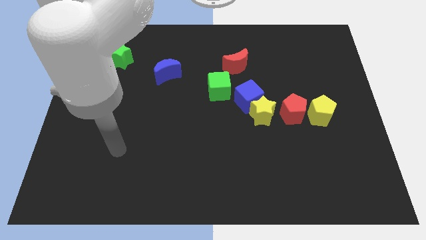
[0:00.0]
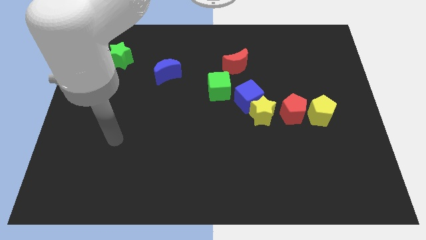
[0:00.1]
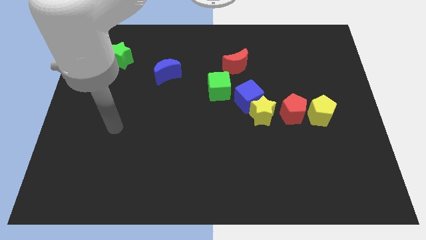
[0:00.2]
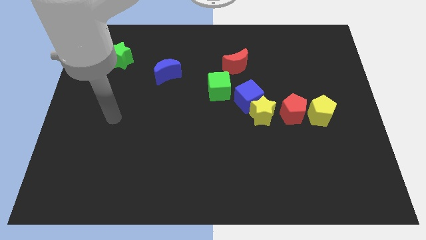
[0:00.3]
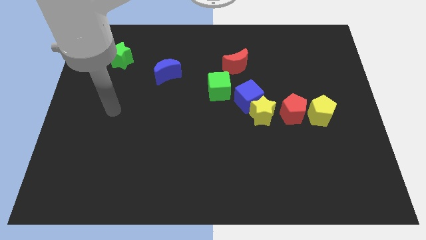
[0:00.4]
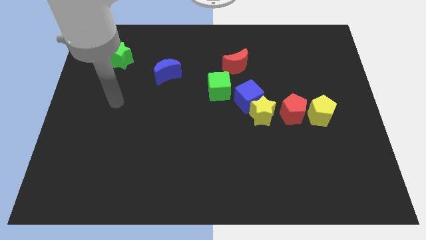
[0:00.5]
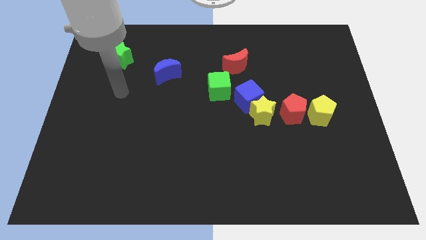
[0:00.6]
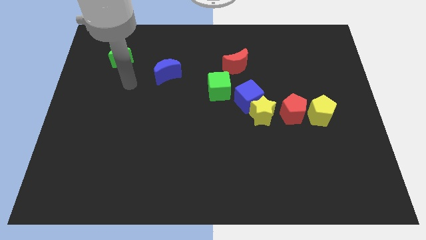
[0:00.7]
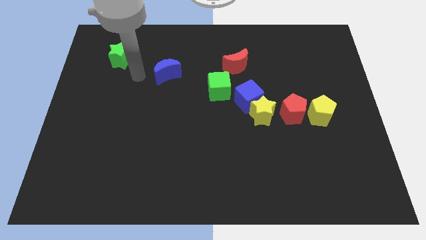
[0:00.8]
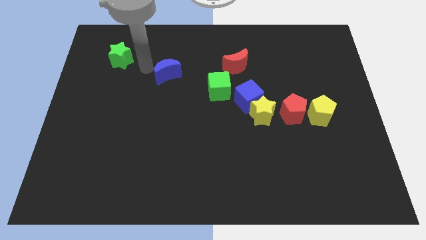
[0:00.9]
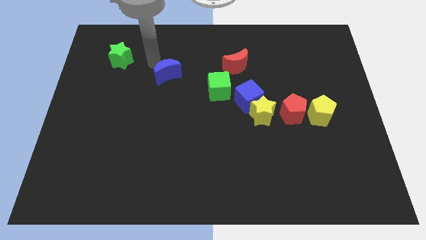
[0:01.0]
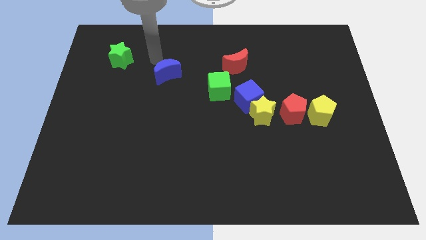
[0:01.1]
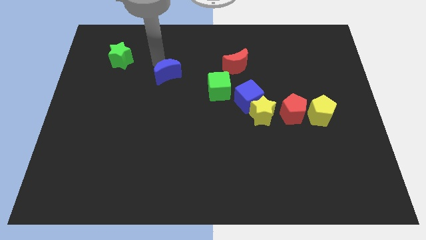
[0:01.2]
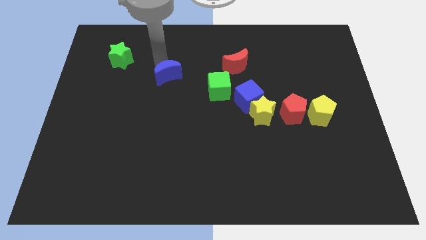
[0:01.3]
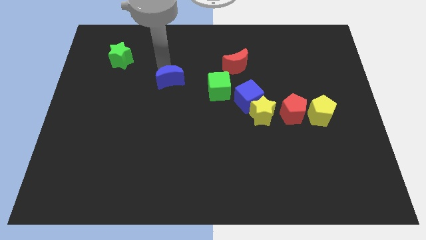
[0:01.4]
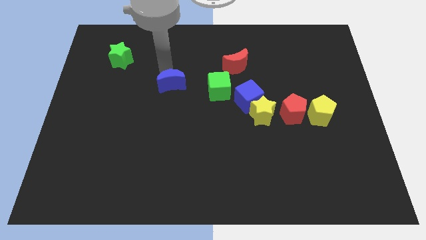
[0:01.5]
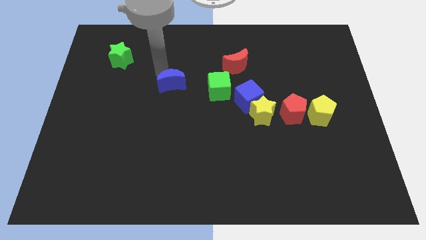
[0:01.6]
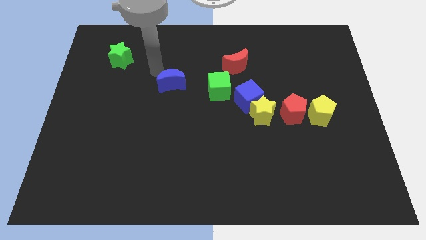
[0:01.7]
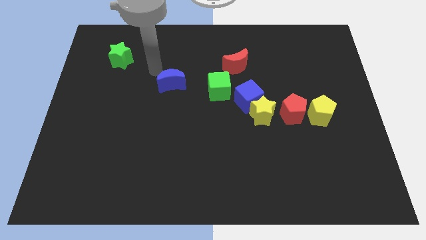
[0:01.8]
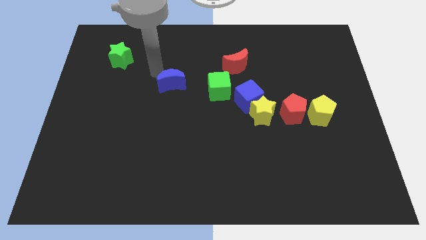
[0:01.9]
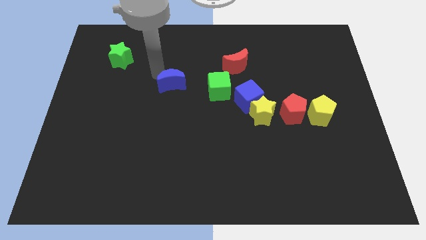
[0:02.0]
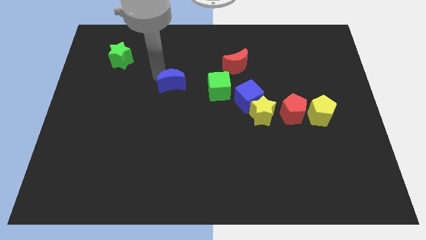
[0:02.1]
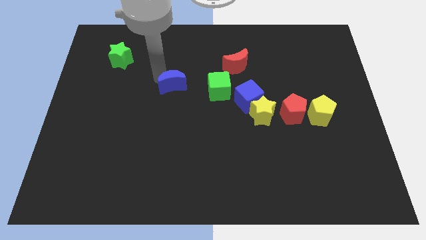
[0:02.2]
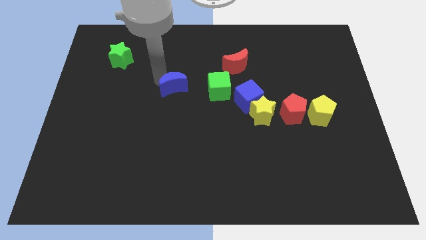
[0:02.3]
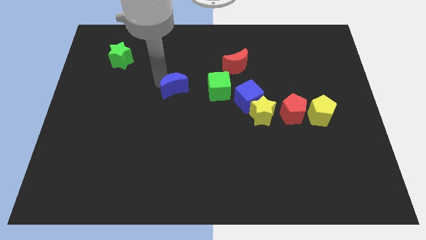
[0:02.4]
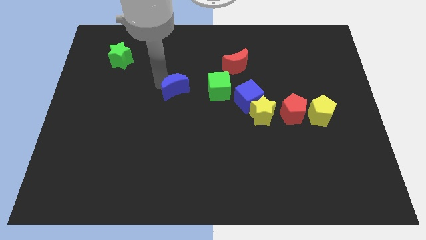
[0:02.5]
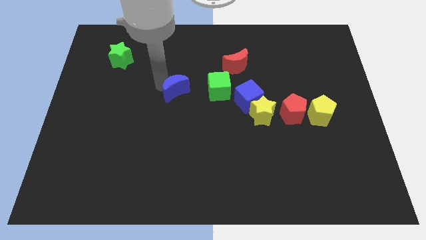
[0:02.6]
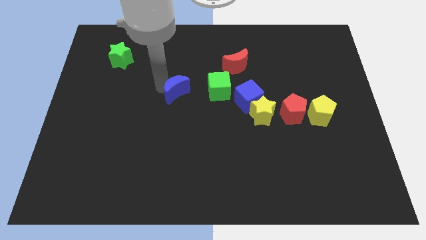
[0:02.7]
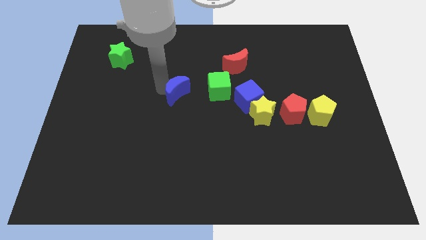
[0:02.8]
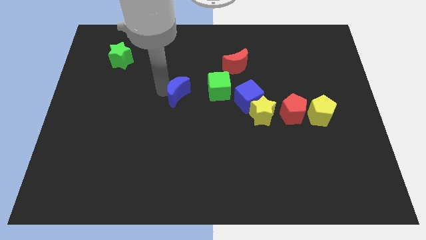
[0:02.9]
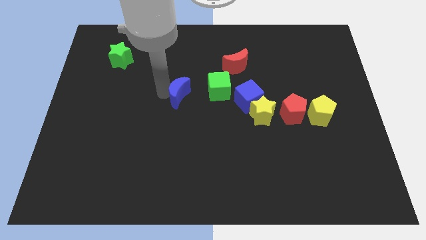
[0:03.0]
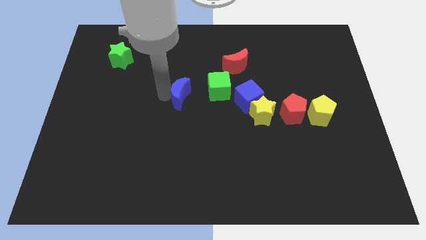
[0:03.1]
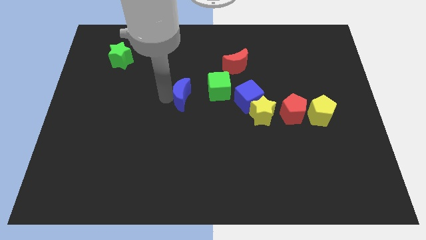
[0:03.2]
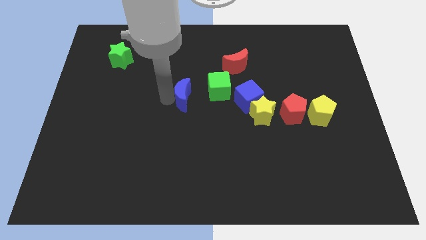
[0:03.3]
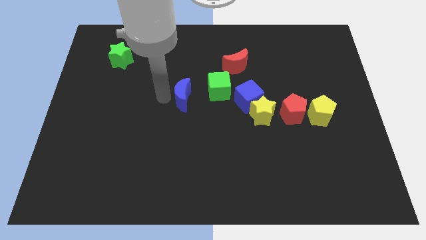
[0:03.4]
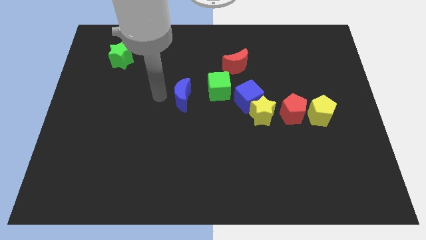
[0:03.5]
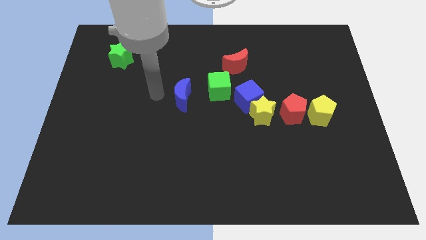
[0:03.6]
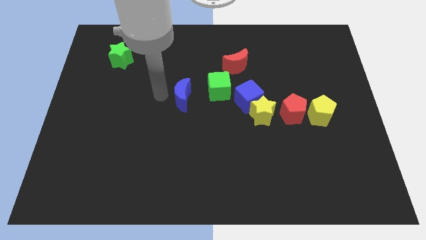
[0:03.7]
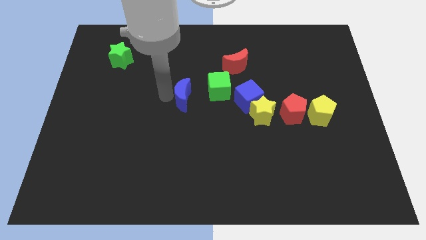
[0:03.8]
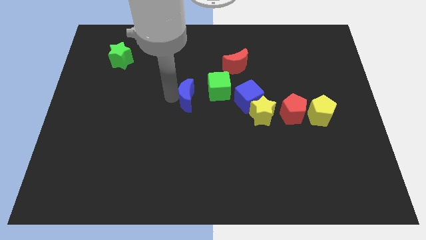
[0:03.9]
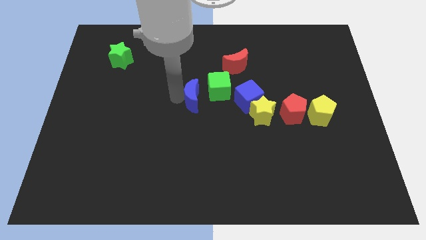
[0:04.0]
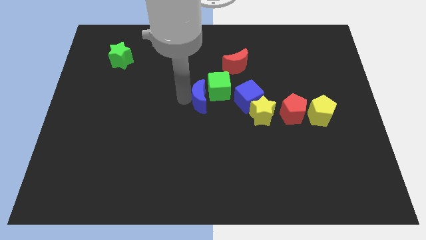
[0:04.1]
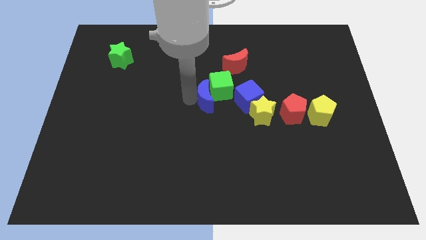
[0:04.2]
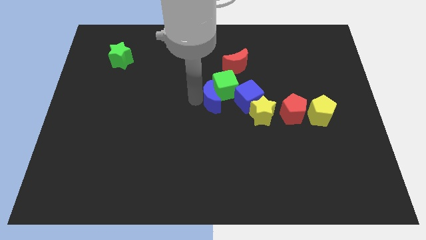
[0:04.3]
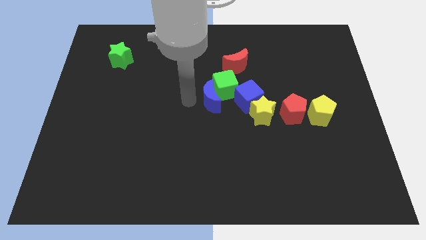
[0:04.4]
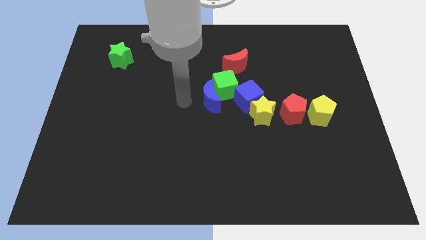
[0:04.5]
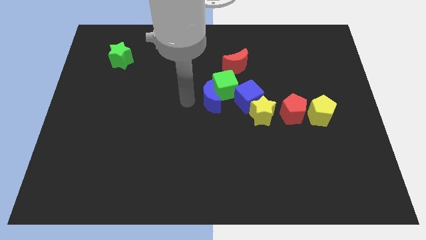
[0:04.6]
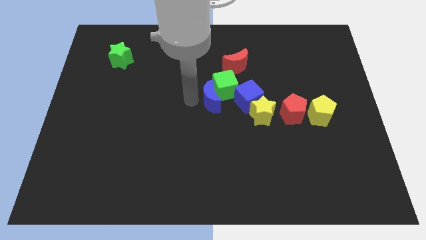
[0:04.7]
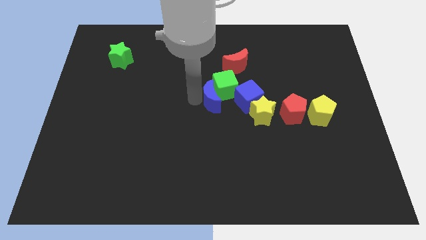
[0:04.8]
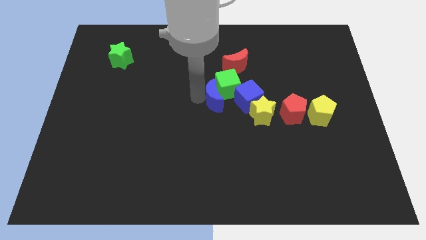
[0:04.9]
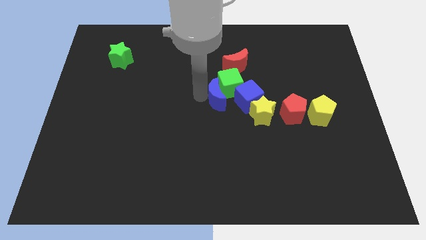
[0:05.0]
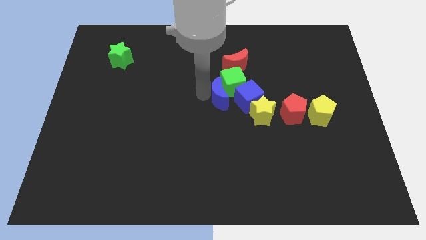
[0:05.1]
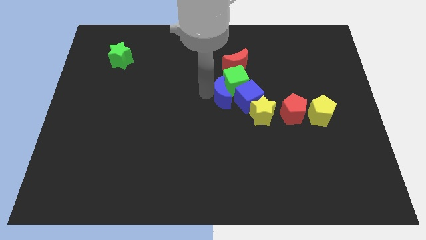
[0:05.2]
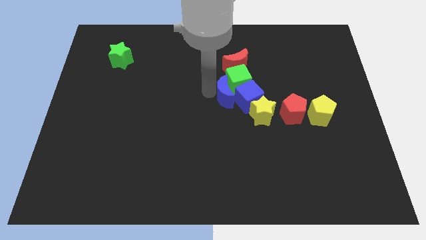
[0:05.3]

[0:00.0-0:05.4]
put the blue moon to the blue cube

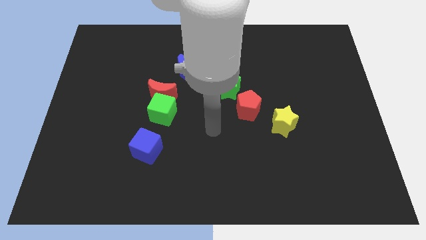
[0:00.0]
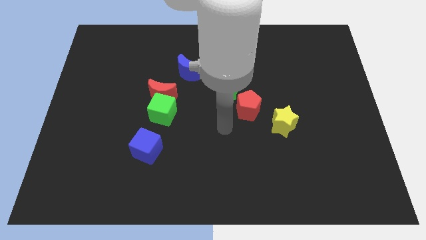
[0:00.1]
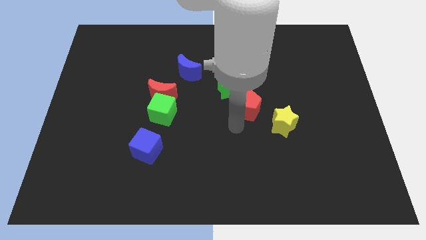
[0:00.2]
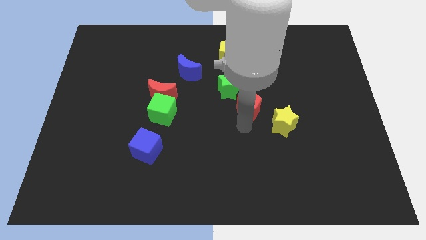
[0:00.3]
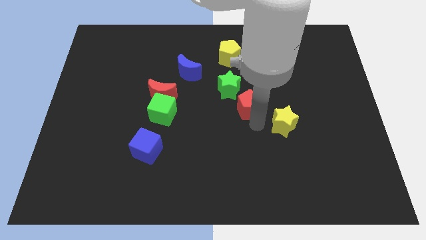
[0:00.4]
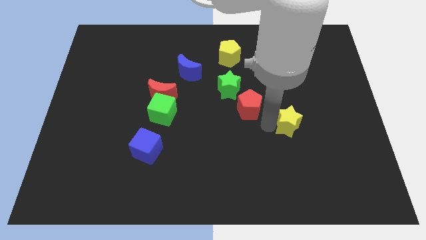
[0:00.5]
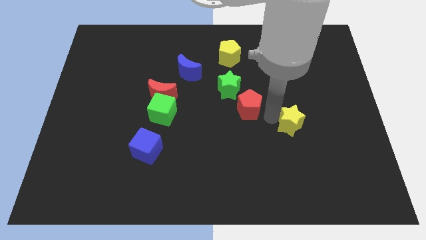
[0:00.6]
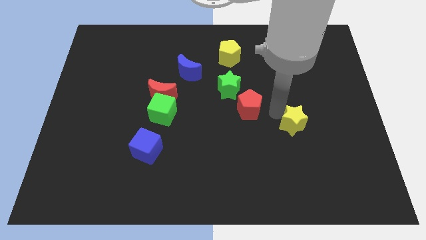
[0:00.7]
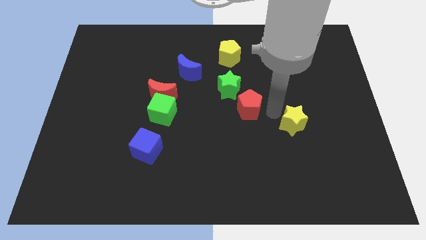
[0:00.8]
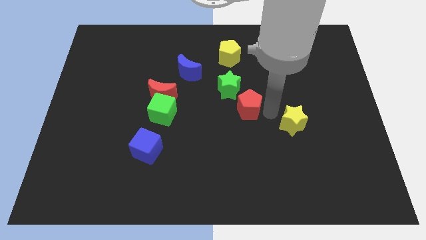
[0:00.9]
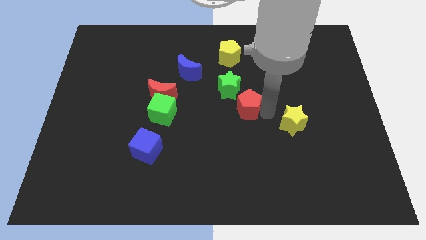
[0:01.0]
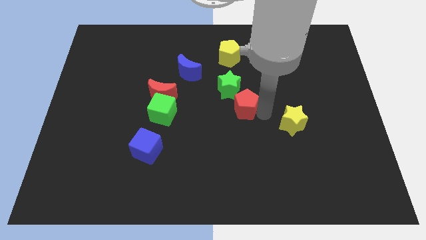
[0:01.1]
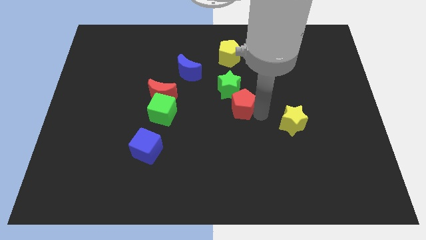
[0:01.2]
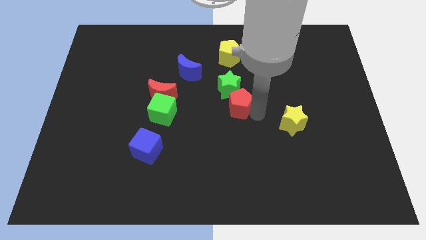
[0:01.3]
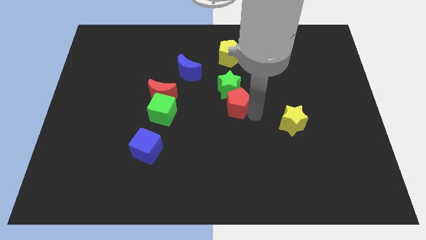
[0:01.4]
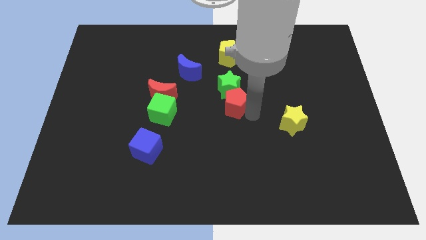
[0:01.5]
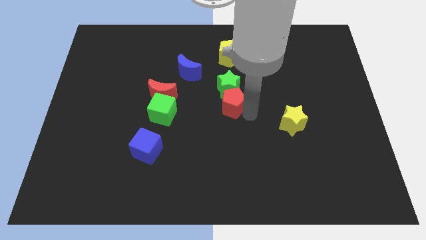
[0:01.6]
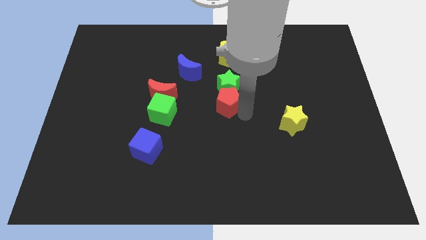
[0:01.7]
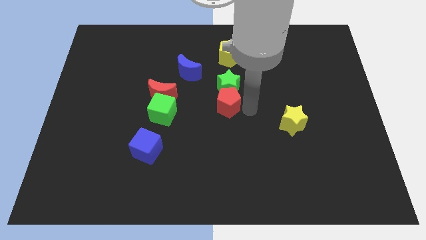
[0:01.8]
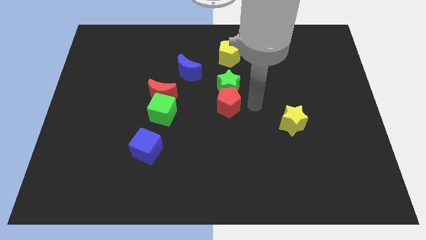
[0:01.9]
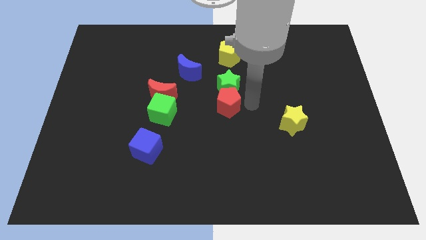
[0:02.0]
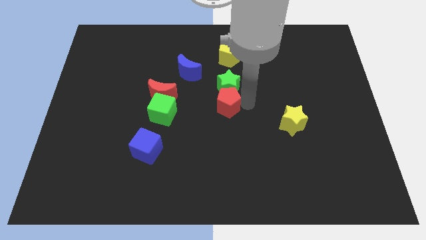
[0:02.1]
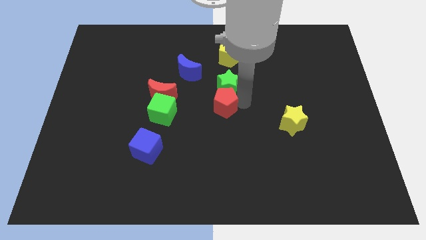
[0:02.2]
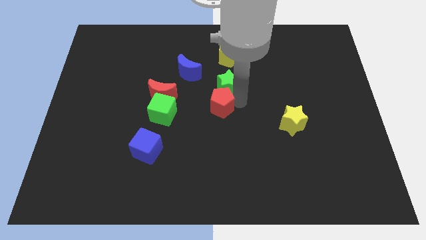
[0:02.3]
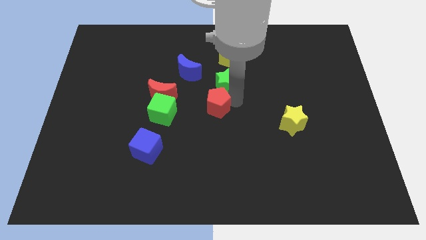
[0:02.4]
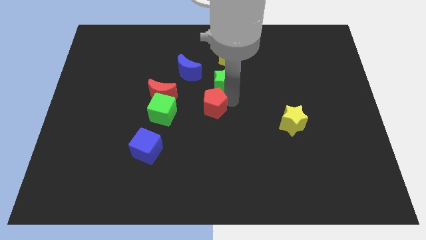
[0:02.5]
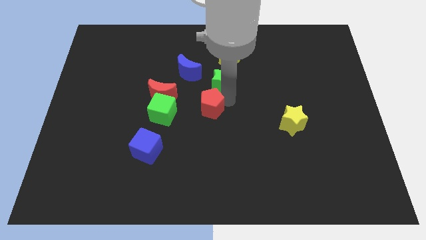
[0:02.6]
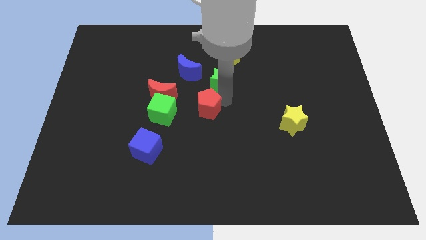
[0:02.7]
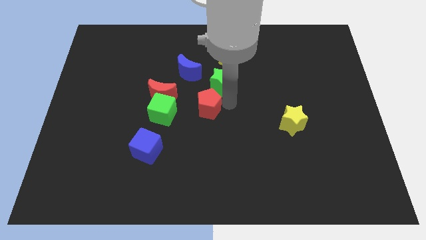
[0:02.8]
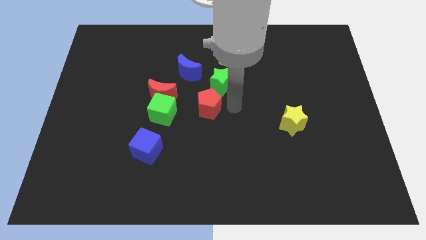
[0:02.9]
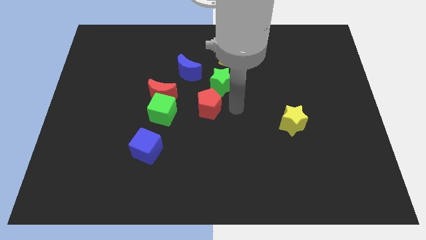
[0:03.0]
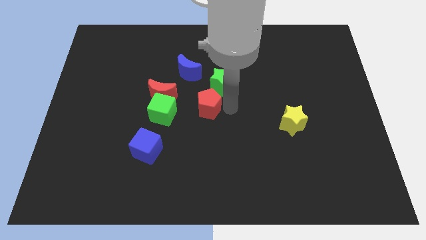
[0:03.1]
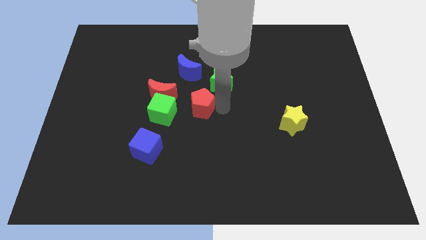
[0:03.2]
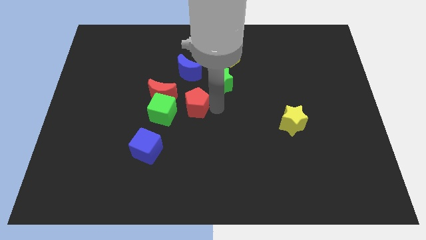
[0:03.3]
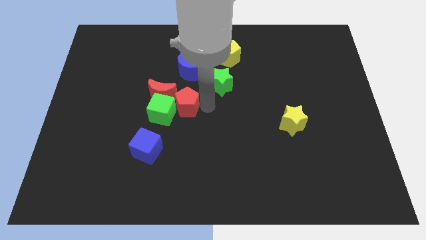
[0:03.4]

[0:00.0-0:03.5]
put the red pentagon close to the green cube
